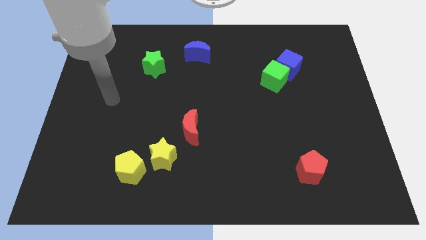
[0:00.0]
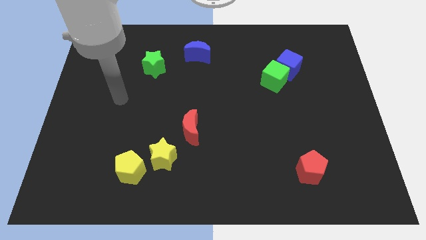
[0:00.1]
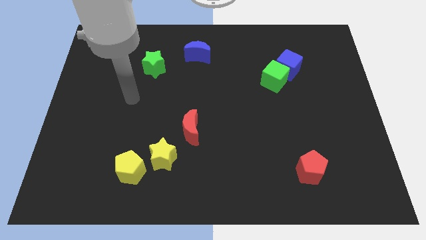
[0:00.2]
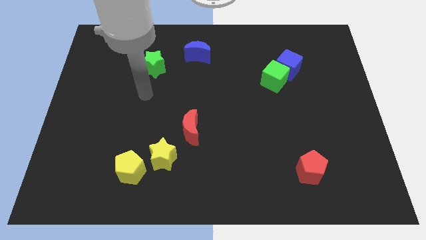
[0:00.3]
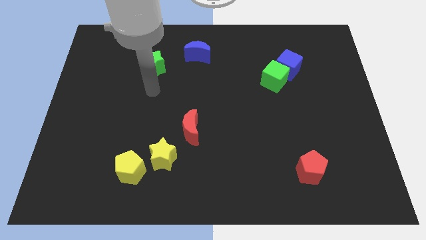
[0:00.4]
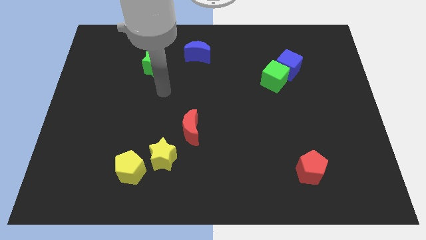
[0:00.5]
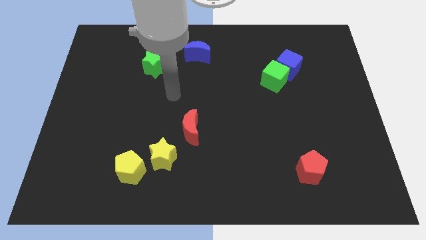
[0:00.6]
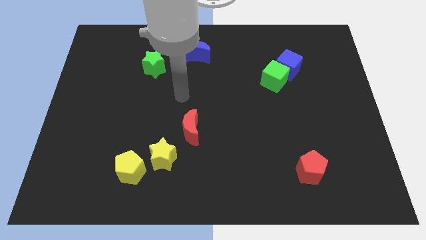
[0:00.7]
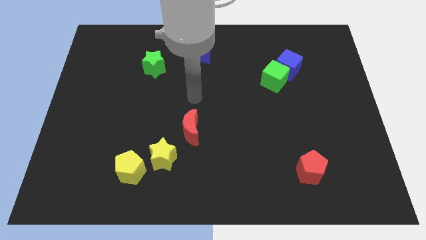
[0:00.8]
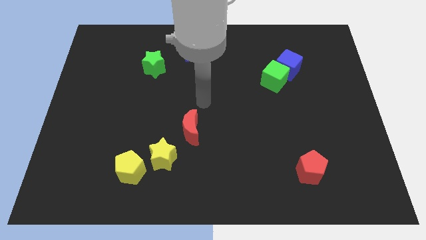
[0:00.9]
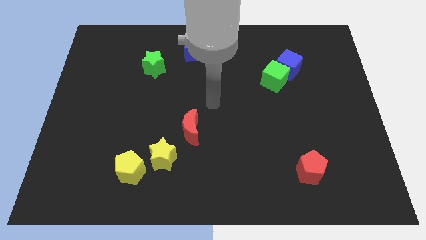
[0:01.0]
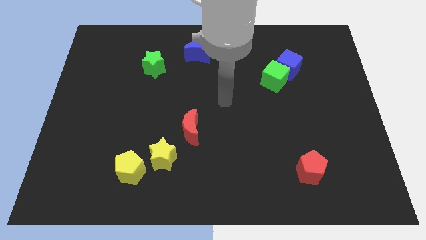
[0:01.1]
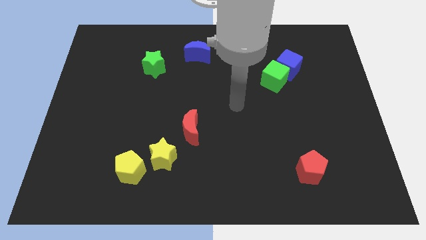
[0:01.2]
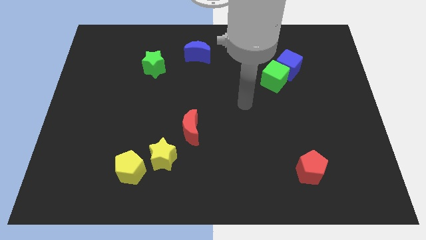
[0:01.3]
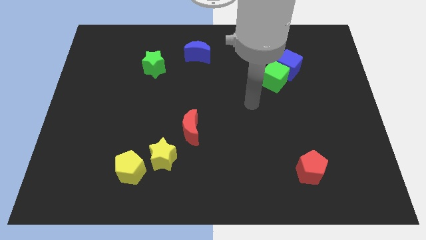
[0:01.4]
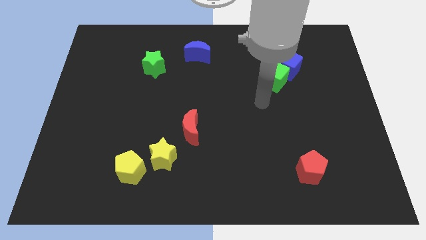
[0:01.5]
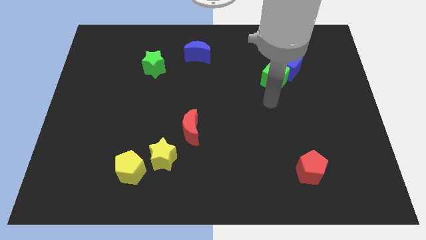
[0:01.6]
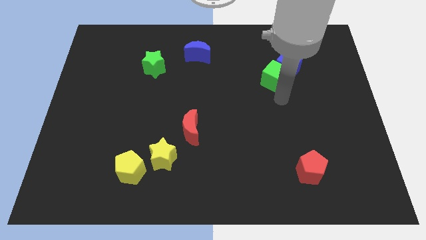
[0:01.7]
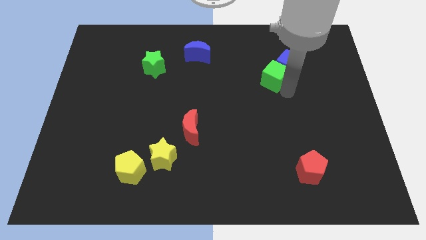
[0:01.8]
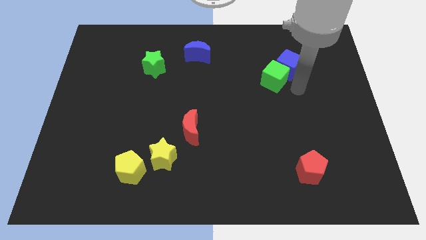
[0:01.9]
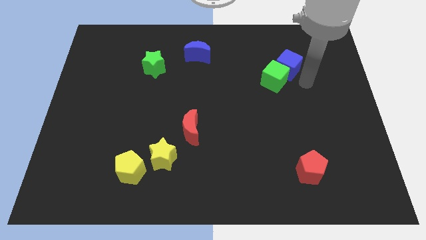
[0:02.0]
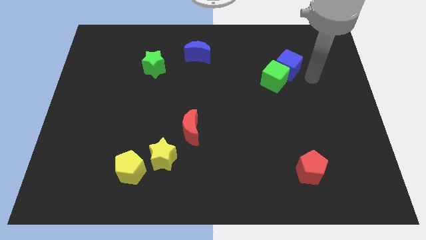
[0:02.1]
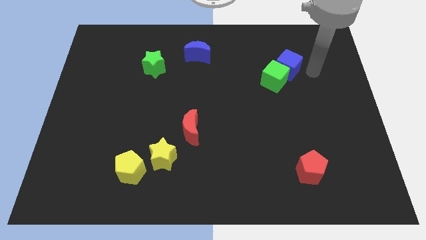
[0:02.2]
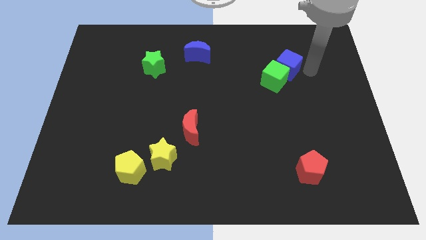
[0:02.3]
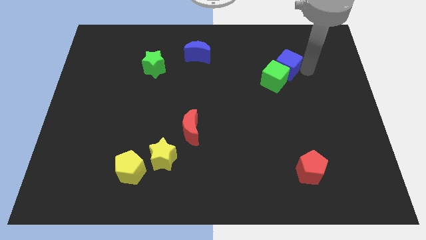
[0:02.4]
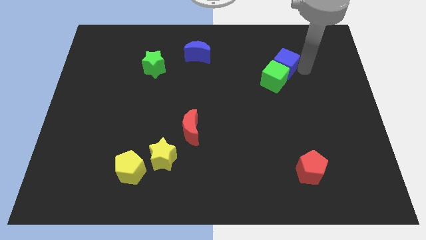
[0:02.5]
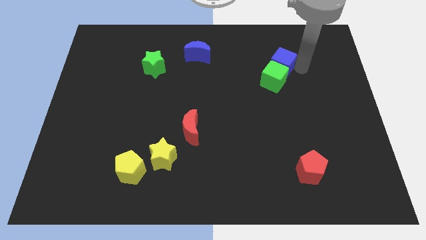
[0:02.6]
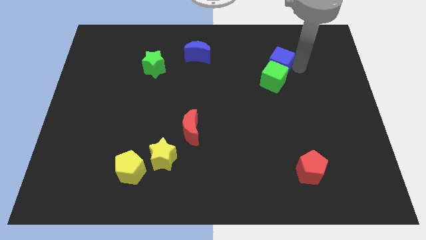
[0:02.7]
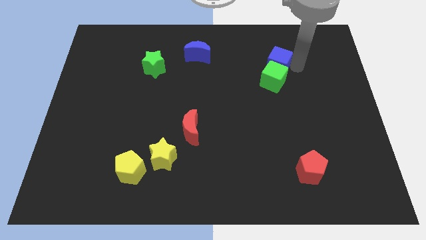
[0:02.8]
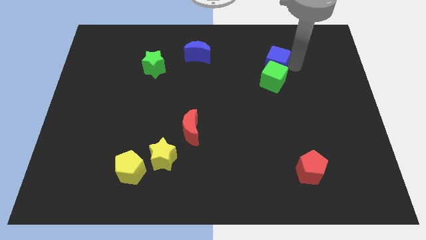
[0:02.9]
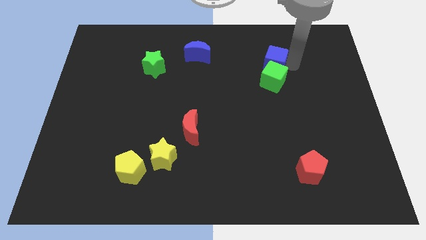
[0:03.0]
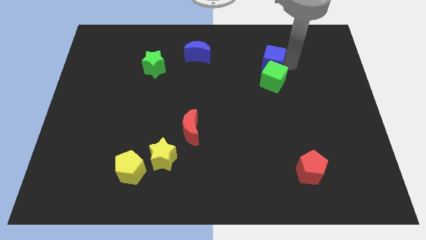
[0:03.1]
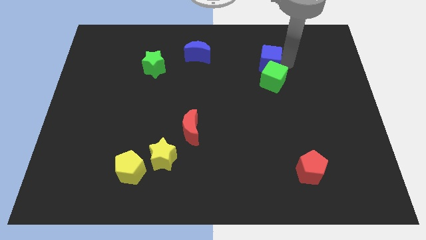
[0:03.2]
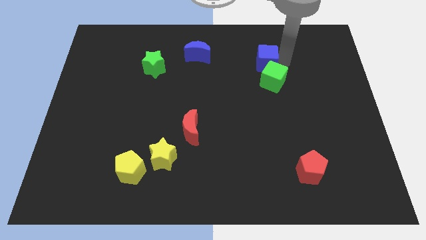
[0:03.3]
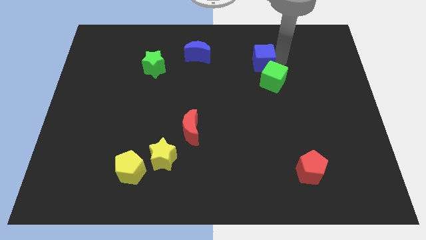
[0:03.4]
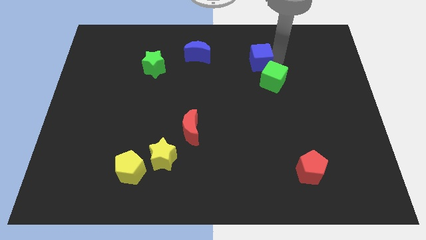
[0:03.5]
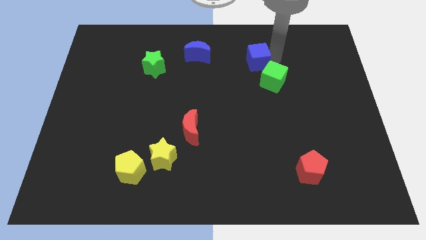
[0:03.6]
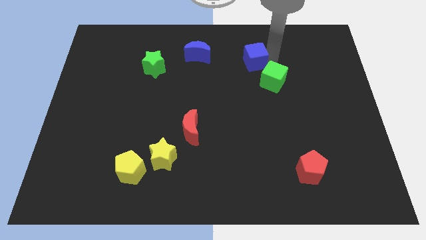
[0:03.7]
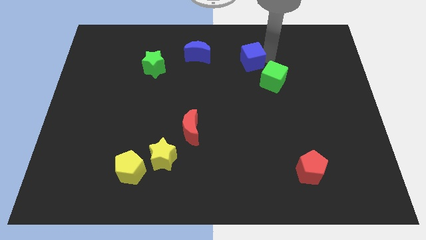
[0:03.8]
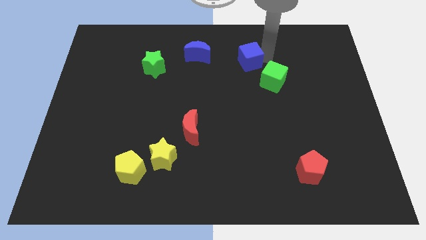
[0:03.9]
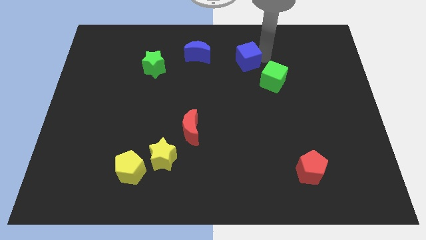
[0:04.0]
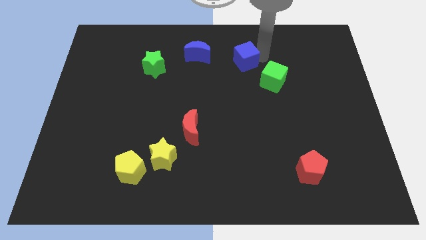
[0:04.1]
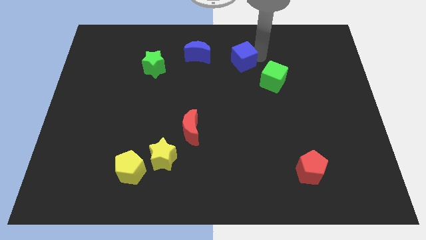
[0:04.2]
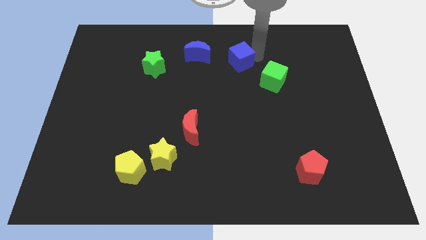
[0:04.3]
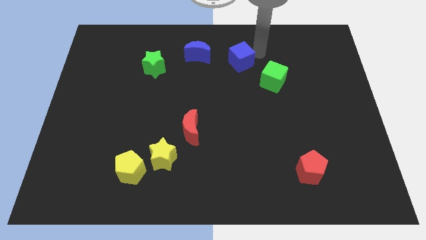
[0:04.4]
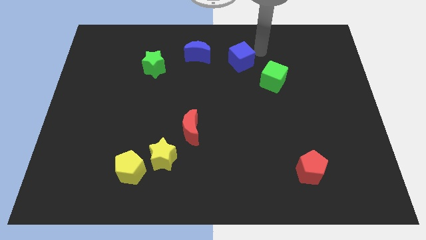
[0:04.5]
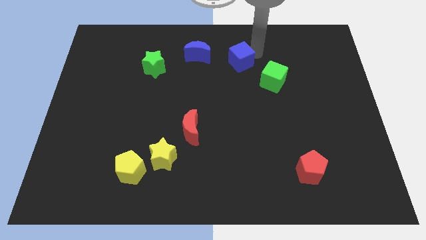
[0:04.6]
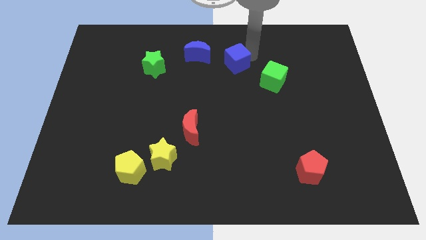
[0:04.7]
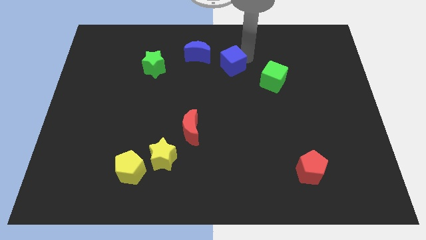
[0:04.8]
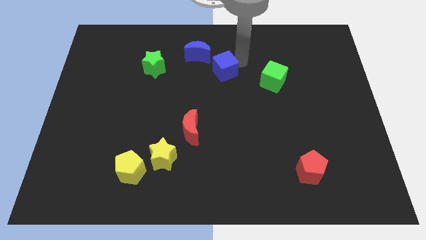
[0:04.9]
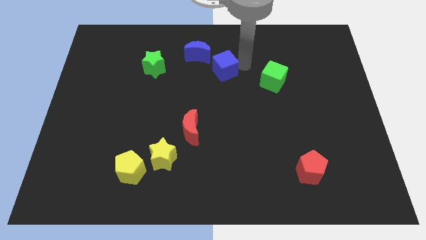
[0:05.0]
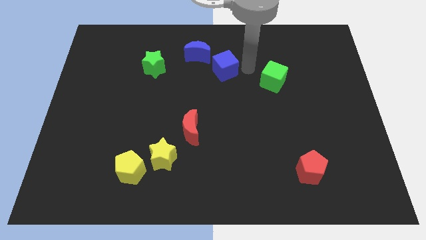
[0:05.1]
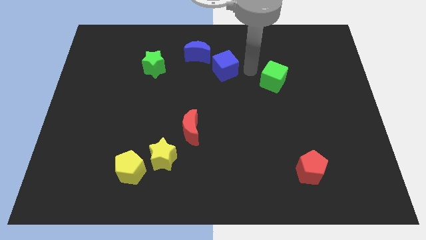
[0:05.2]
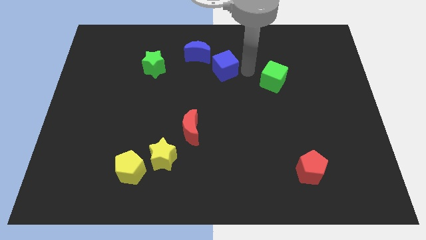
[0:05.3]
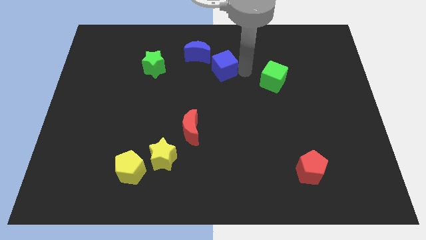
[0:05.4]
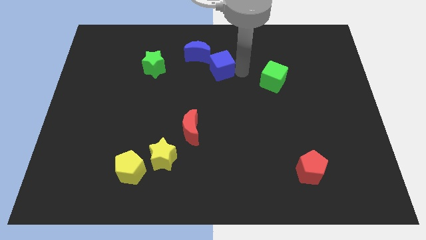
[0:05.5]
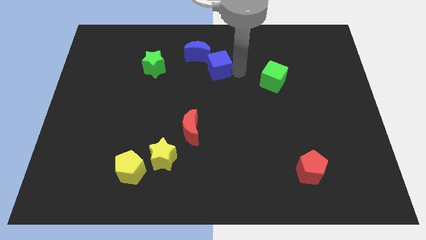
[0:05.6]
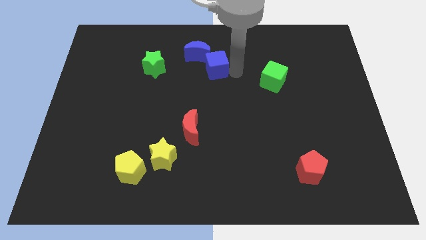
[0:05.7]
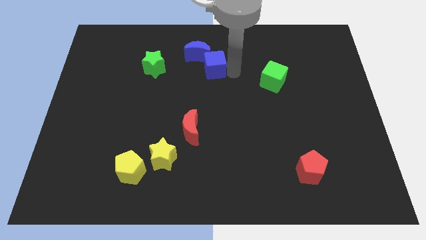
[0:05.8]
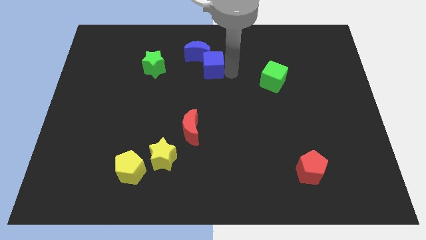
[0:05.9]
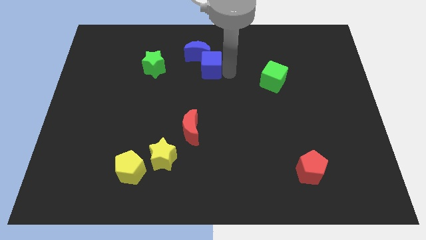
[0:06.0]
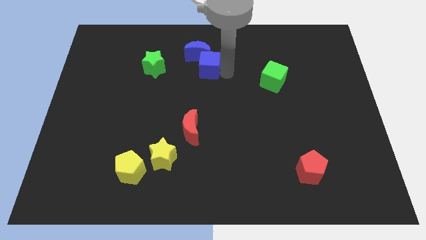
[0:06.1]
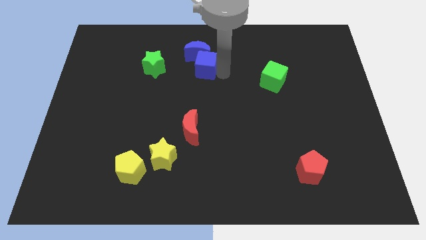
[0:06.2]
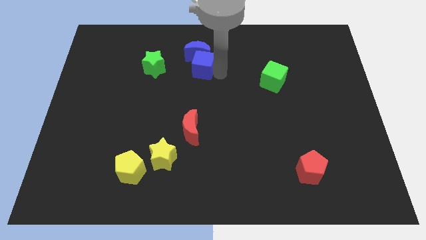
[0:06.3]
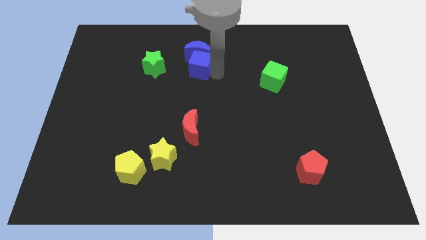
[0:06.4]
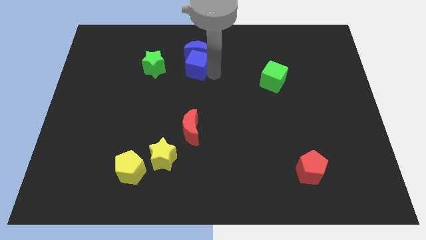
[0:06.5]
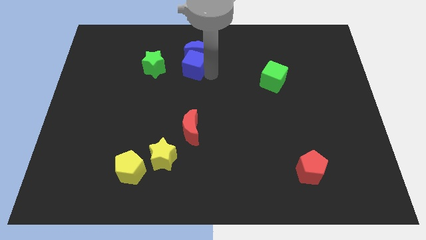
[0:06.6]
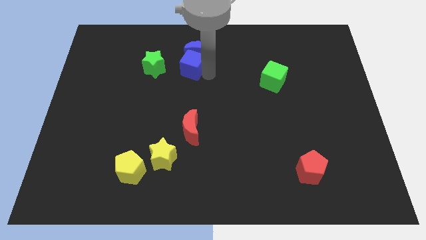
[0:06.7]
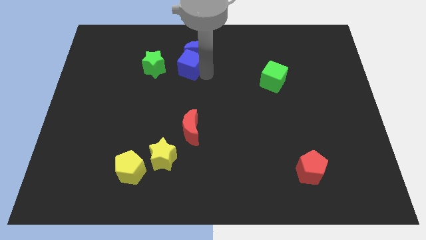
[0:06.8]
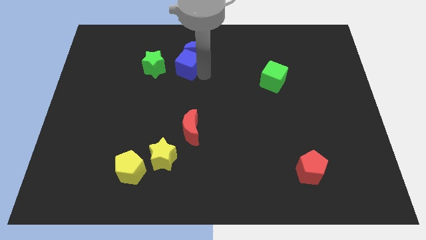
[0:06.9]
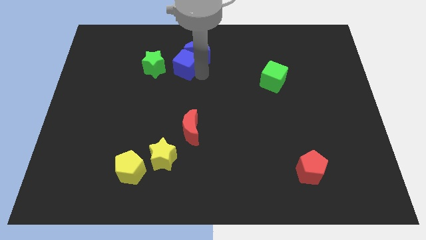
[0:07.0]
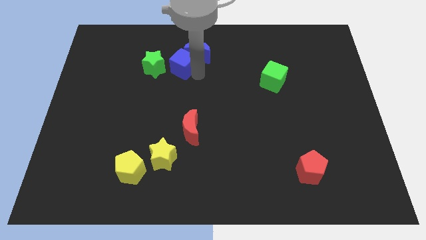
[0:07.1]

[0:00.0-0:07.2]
slide the blue cube to the left of the blue moon
